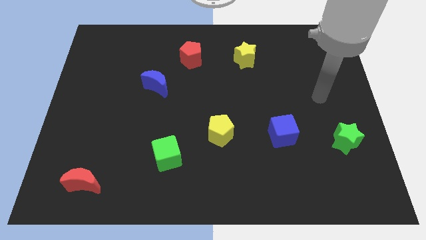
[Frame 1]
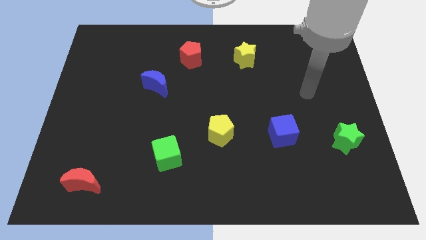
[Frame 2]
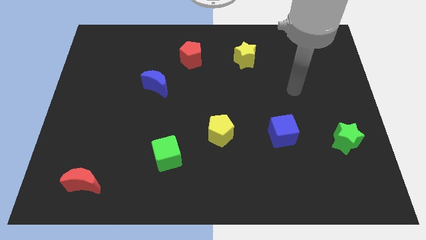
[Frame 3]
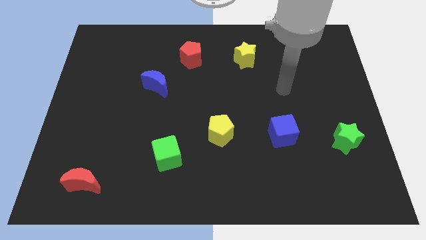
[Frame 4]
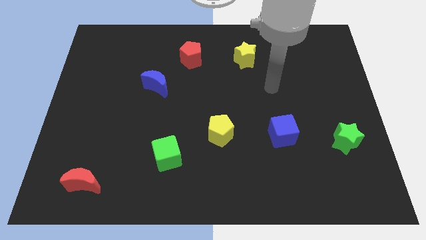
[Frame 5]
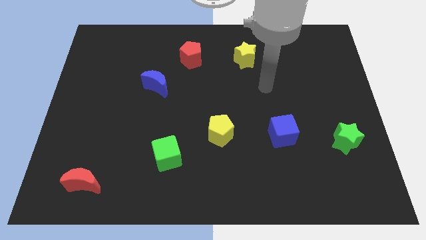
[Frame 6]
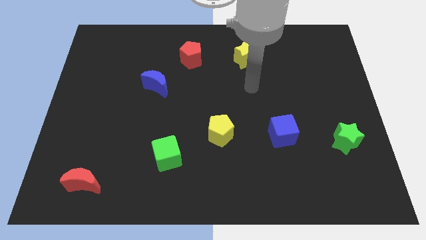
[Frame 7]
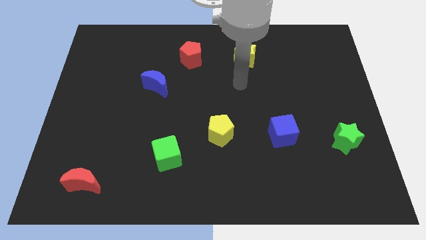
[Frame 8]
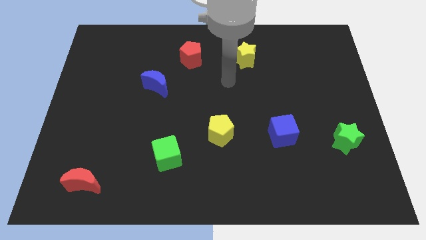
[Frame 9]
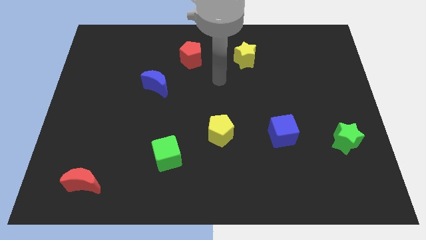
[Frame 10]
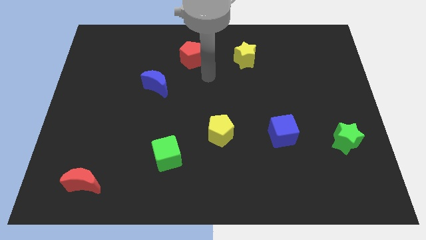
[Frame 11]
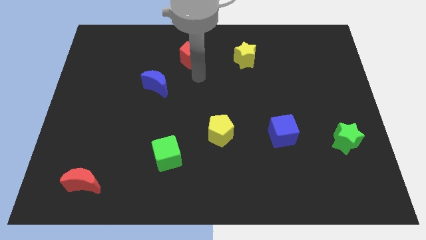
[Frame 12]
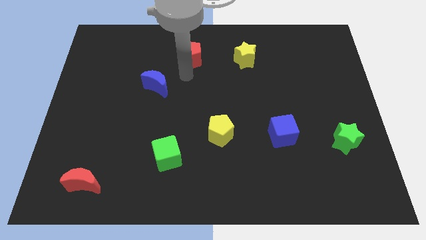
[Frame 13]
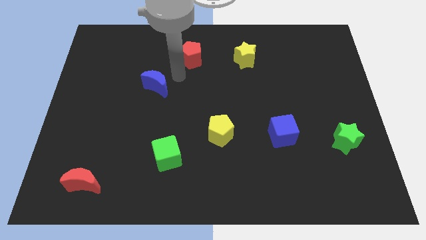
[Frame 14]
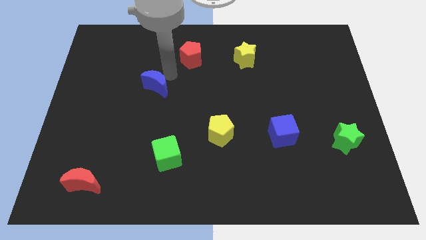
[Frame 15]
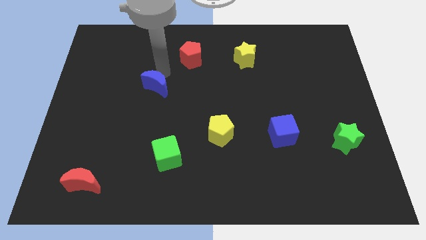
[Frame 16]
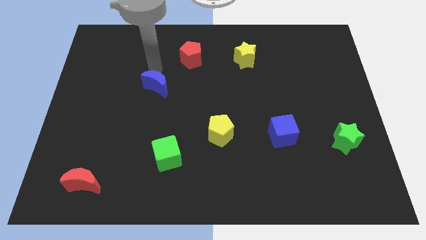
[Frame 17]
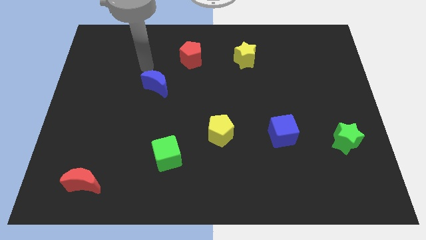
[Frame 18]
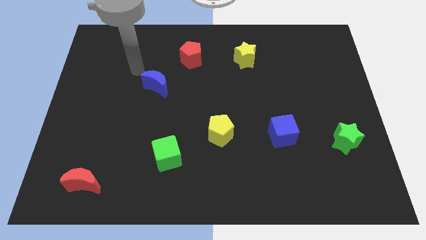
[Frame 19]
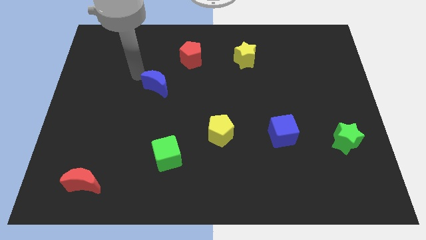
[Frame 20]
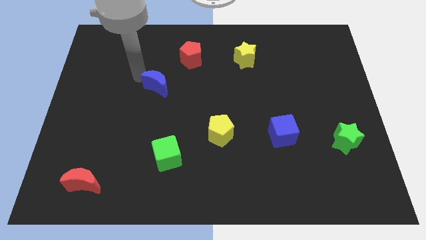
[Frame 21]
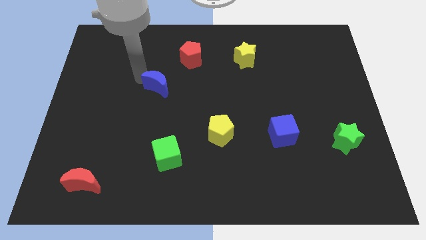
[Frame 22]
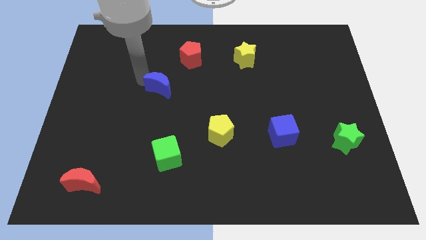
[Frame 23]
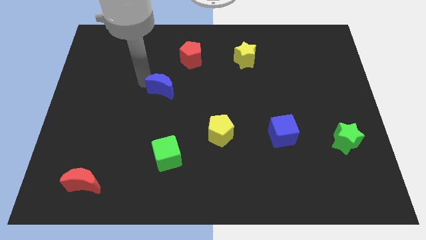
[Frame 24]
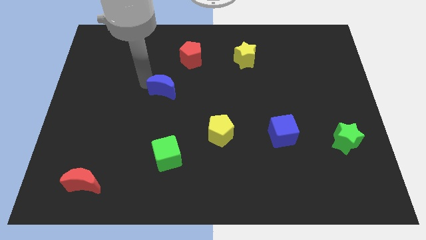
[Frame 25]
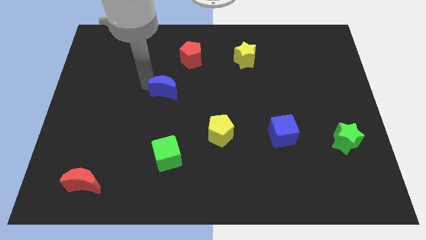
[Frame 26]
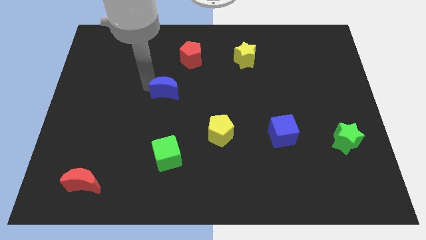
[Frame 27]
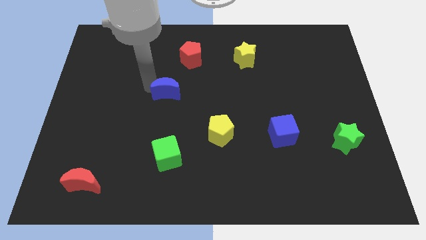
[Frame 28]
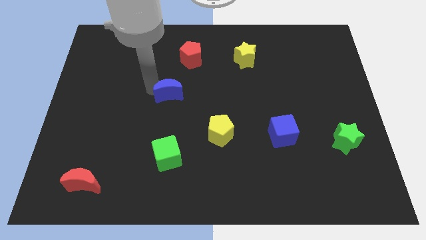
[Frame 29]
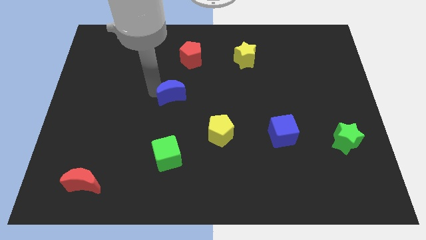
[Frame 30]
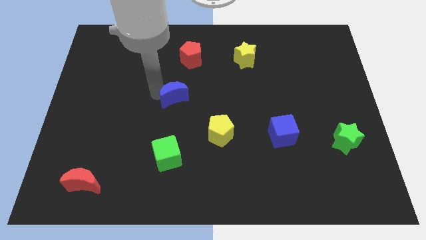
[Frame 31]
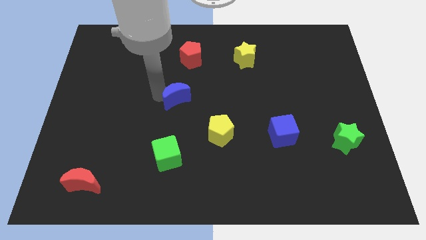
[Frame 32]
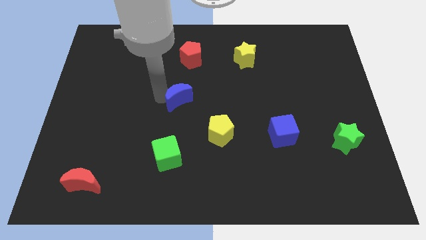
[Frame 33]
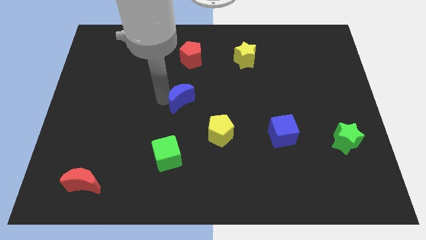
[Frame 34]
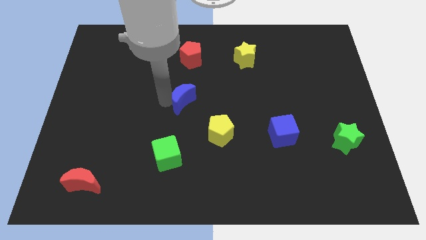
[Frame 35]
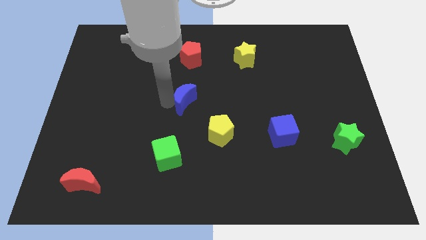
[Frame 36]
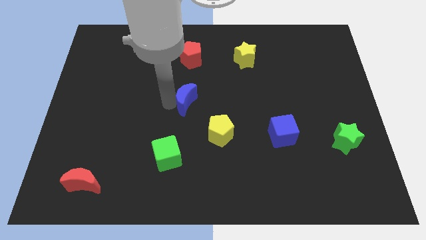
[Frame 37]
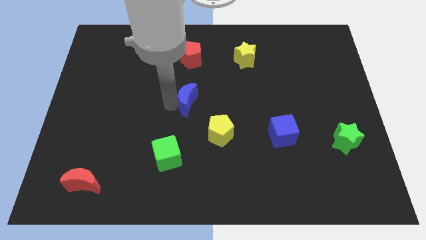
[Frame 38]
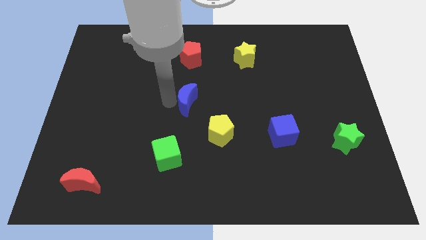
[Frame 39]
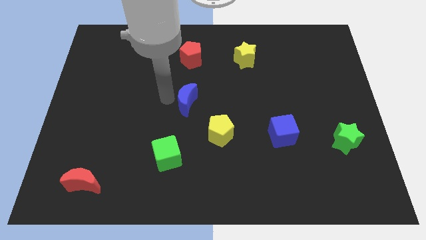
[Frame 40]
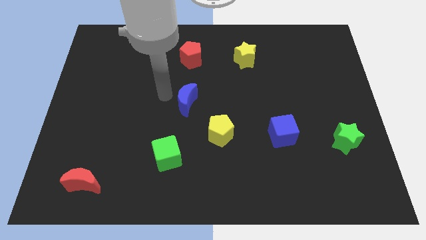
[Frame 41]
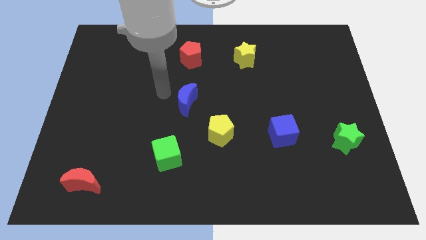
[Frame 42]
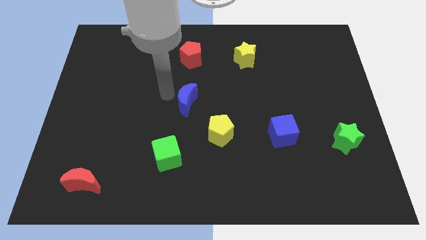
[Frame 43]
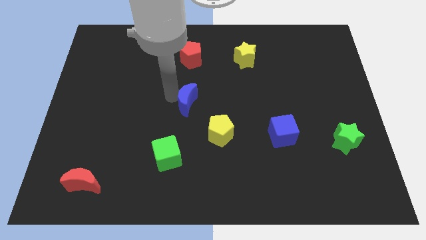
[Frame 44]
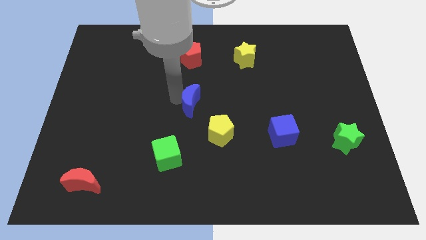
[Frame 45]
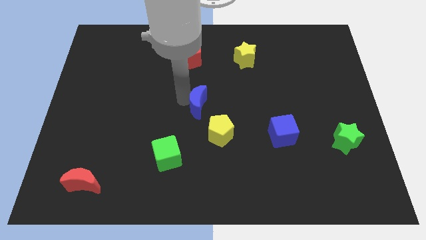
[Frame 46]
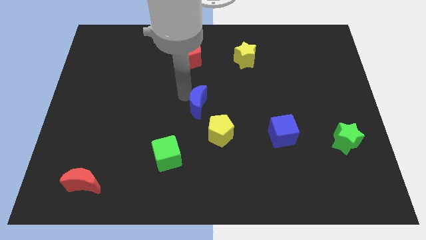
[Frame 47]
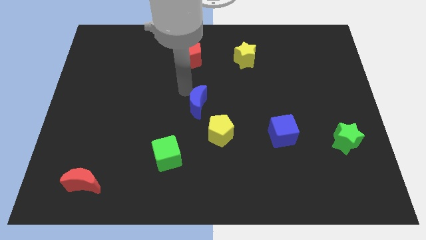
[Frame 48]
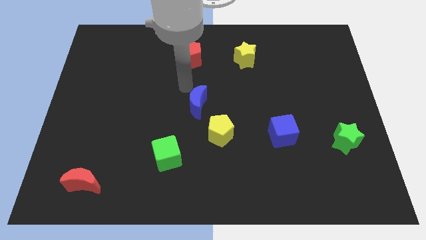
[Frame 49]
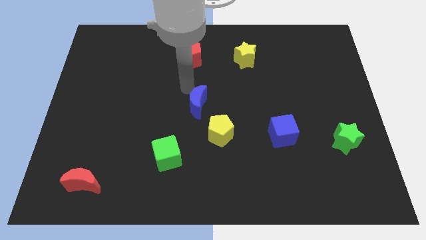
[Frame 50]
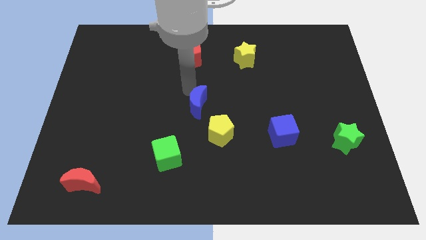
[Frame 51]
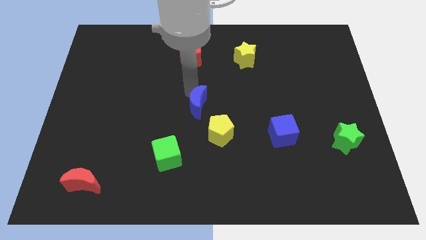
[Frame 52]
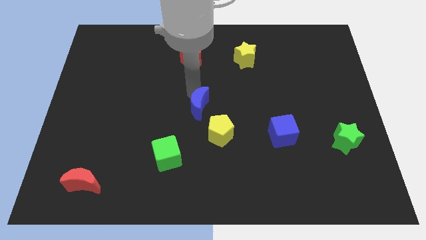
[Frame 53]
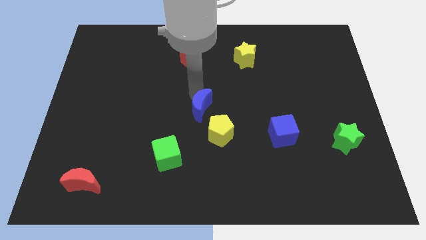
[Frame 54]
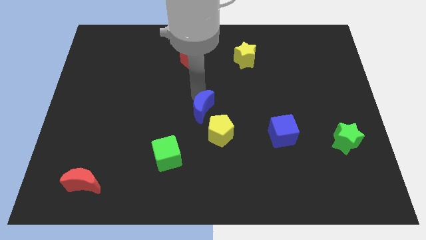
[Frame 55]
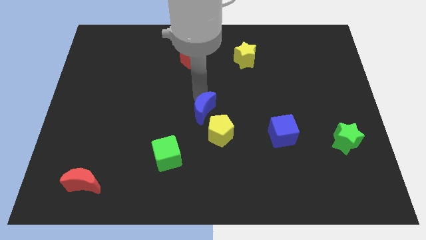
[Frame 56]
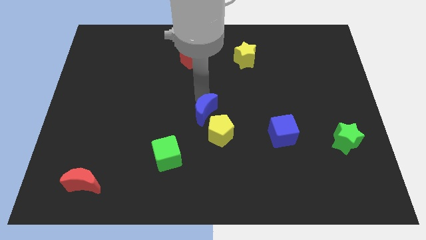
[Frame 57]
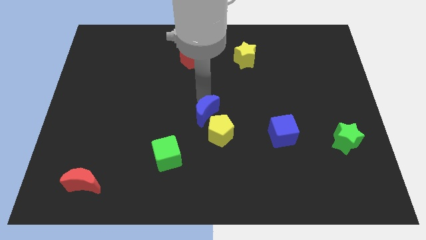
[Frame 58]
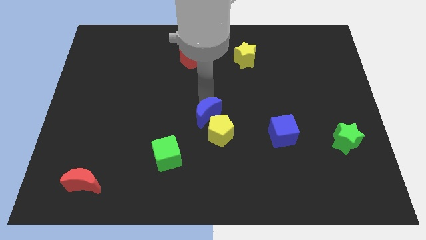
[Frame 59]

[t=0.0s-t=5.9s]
move the blue moon to the yellow pentagon
